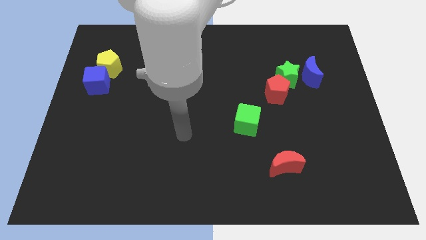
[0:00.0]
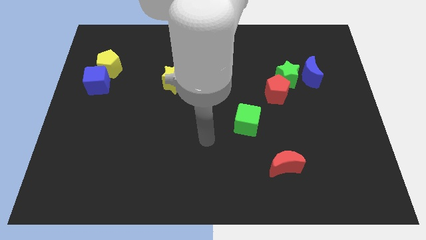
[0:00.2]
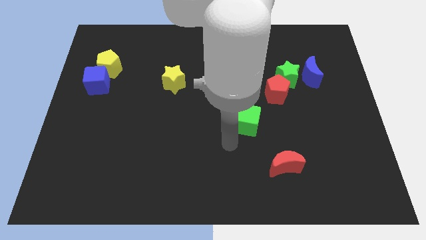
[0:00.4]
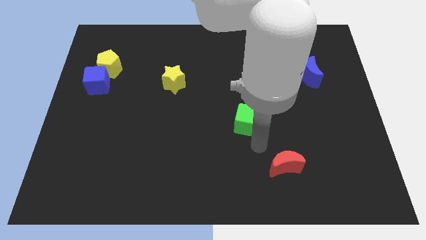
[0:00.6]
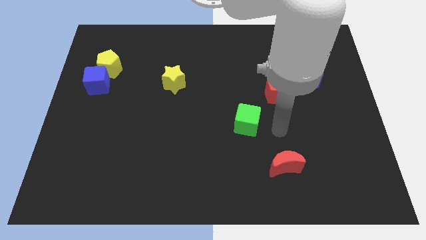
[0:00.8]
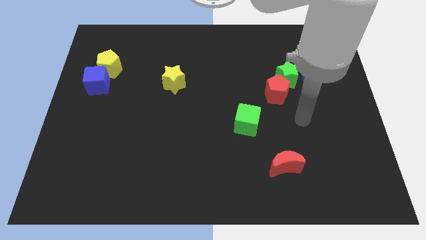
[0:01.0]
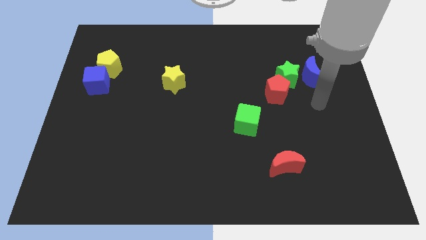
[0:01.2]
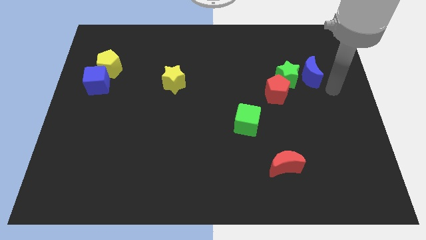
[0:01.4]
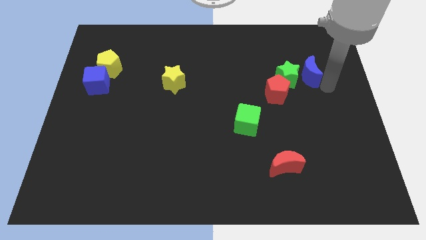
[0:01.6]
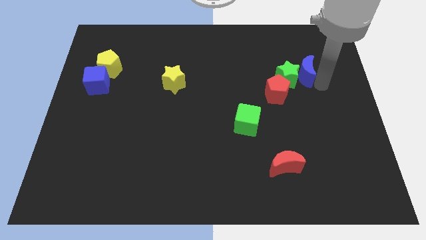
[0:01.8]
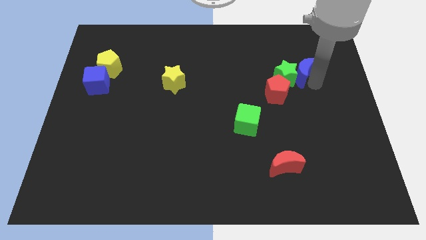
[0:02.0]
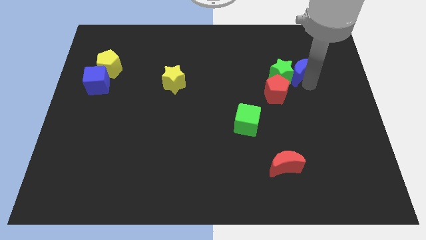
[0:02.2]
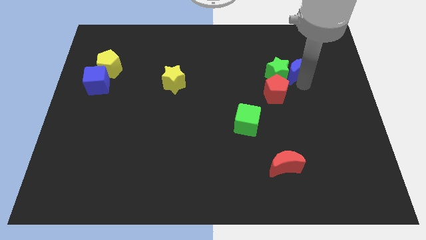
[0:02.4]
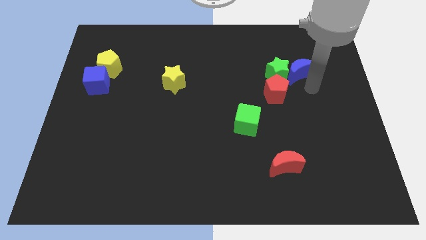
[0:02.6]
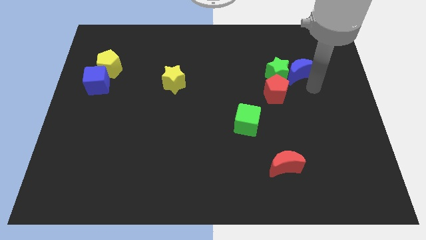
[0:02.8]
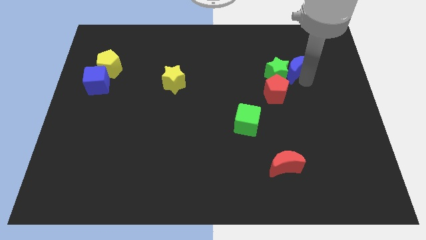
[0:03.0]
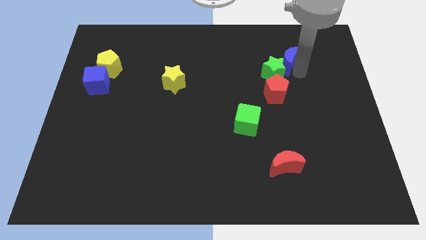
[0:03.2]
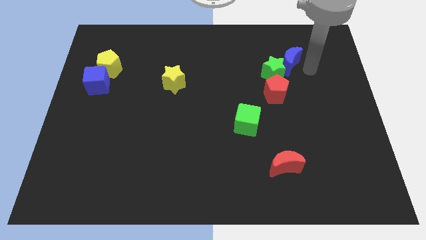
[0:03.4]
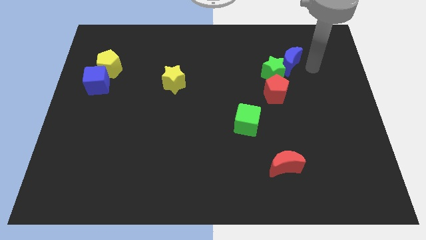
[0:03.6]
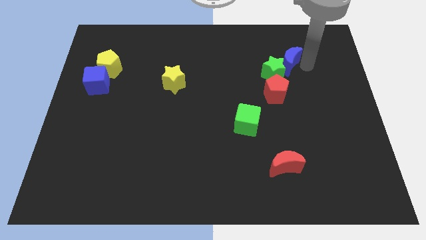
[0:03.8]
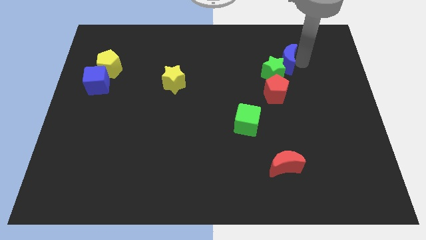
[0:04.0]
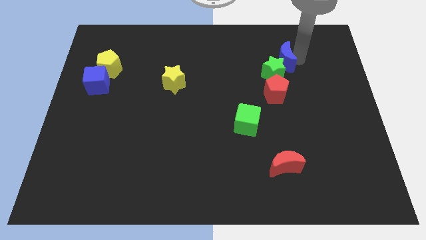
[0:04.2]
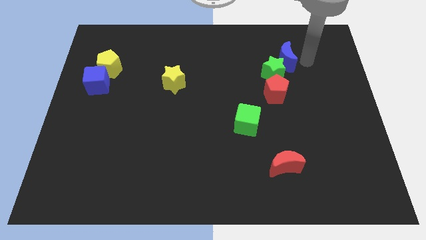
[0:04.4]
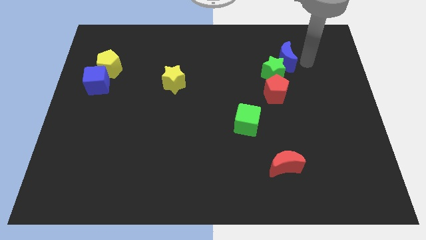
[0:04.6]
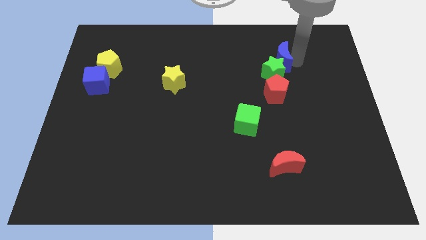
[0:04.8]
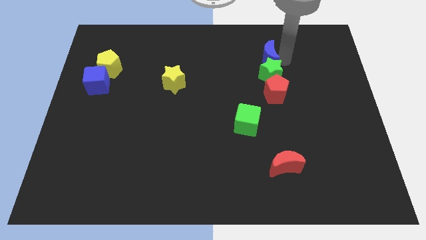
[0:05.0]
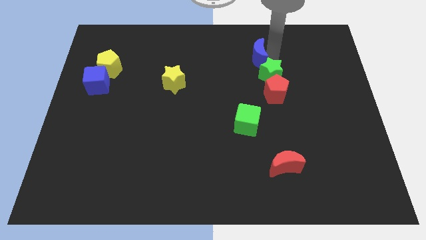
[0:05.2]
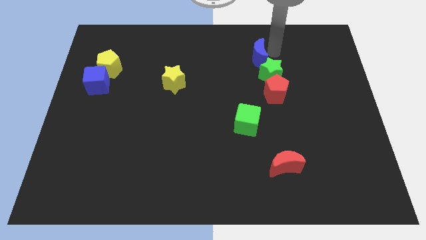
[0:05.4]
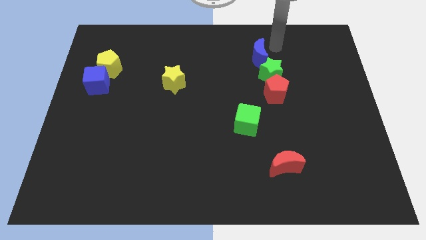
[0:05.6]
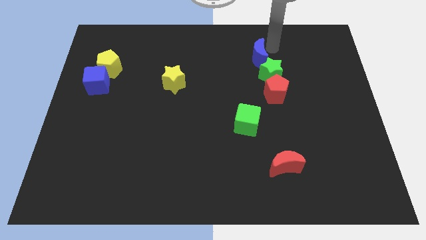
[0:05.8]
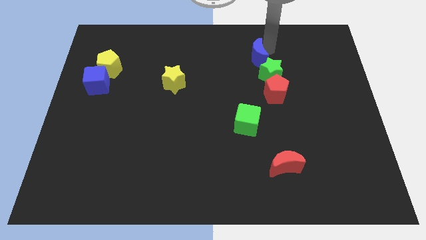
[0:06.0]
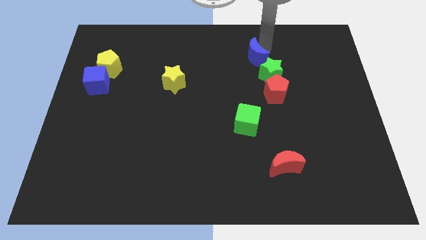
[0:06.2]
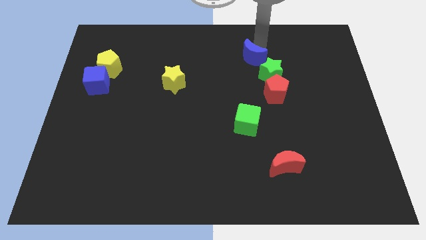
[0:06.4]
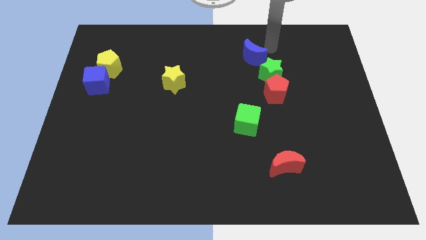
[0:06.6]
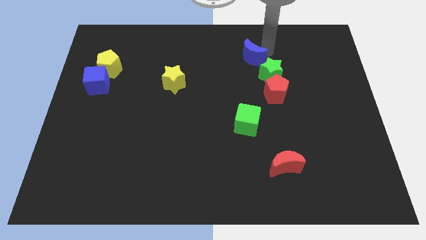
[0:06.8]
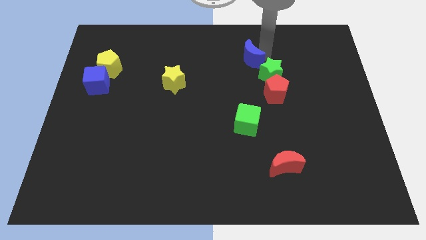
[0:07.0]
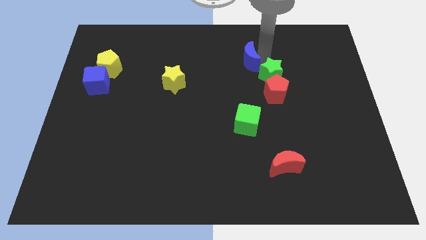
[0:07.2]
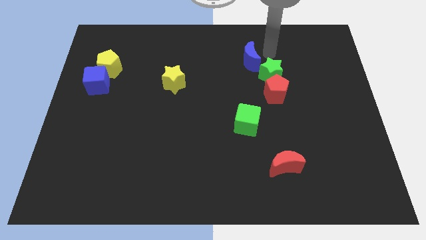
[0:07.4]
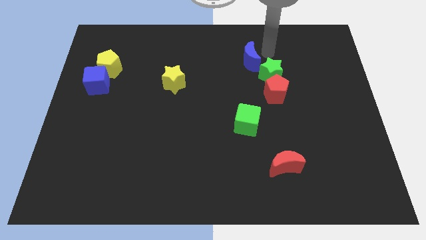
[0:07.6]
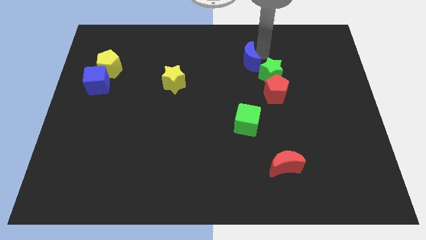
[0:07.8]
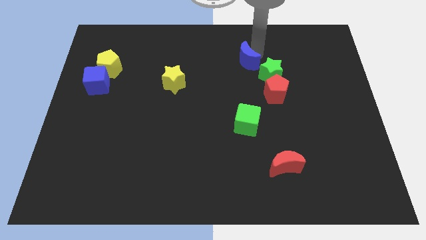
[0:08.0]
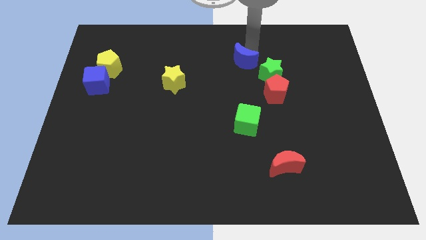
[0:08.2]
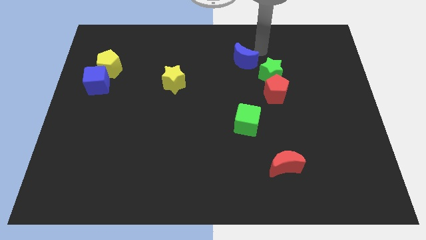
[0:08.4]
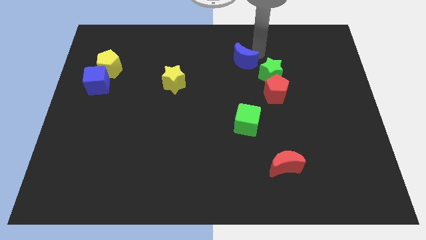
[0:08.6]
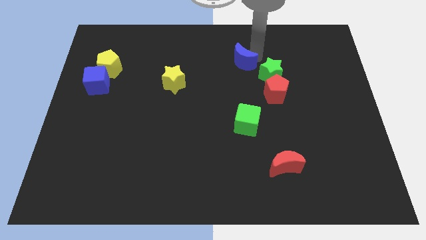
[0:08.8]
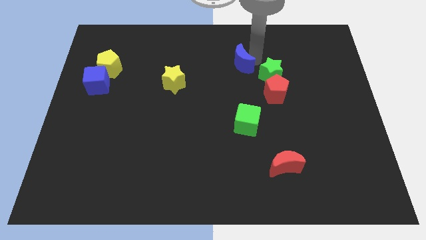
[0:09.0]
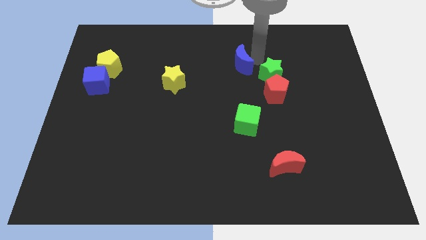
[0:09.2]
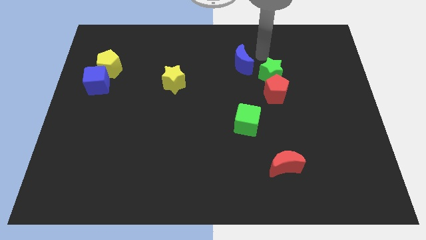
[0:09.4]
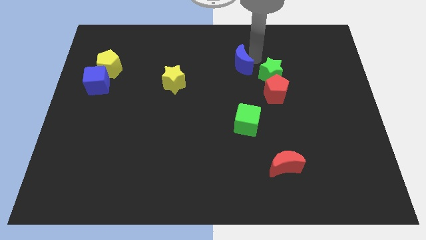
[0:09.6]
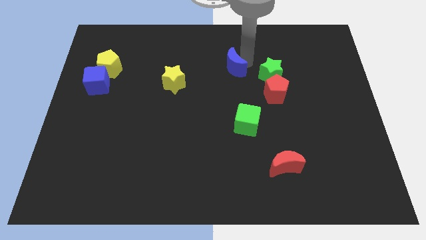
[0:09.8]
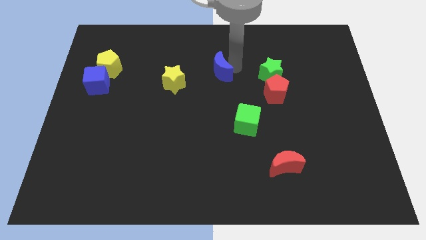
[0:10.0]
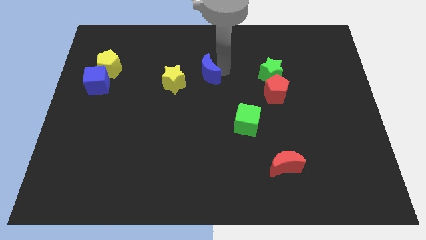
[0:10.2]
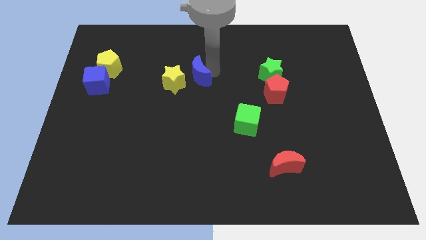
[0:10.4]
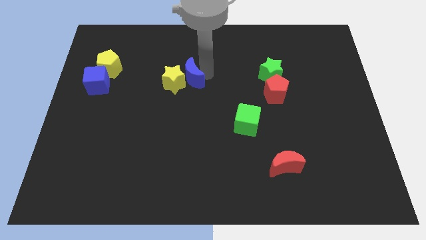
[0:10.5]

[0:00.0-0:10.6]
move the blue moon towards the yellow star

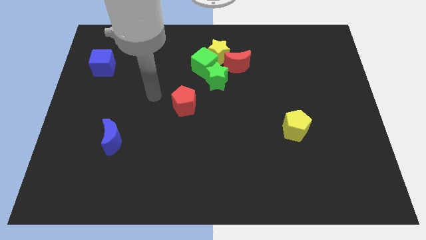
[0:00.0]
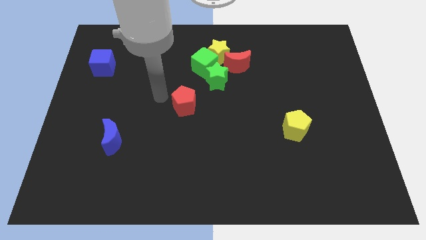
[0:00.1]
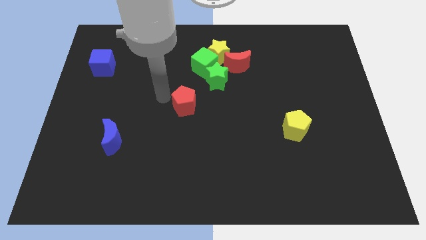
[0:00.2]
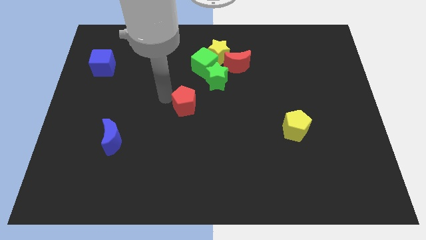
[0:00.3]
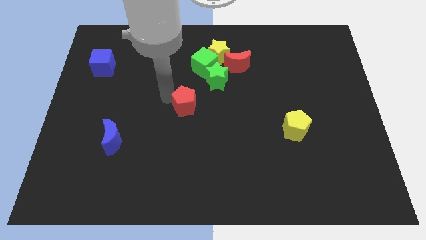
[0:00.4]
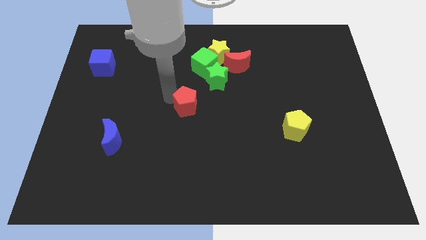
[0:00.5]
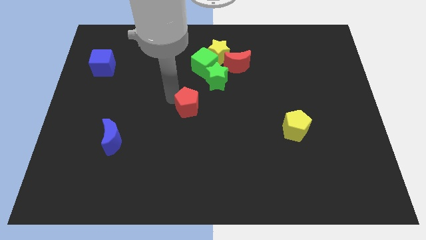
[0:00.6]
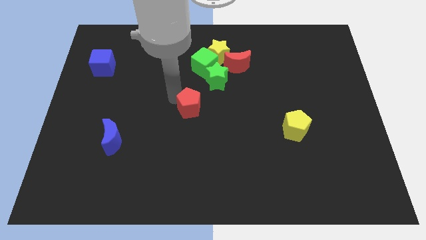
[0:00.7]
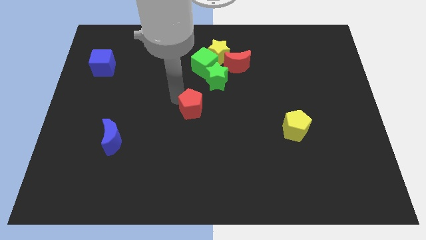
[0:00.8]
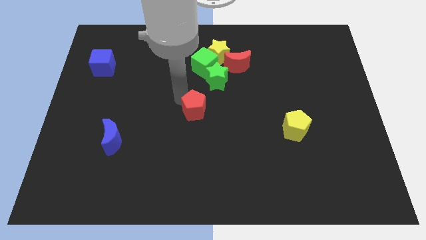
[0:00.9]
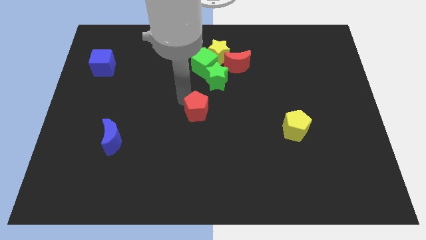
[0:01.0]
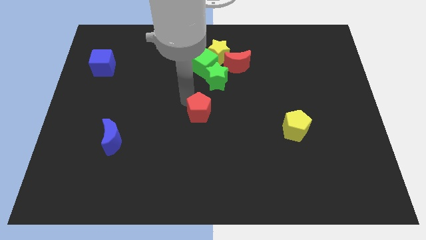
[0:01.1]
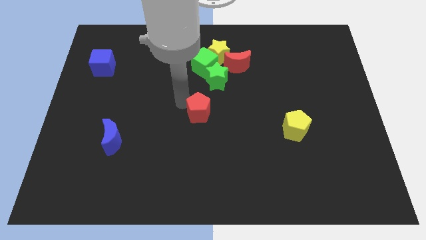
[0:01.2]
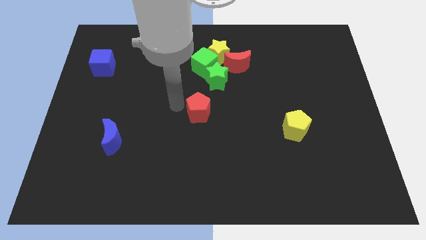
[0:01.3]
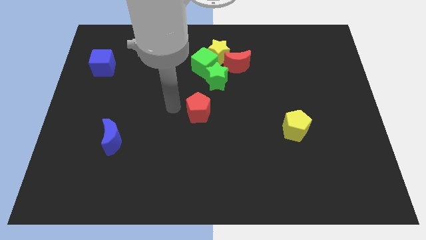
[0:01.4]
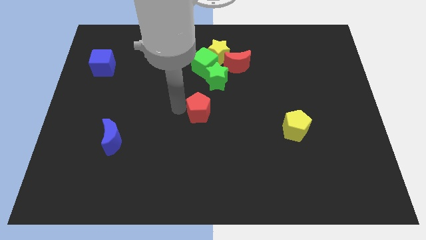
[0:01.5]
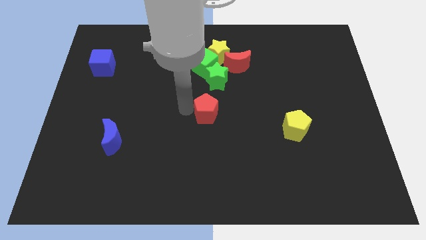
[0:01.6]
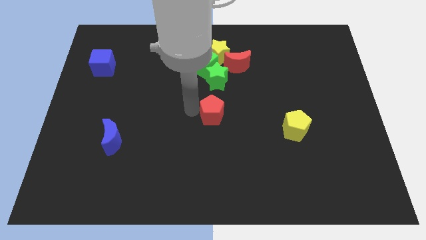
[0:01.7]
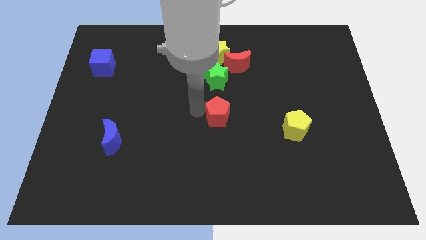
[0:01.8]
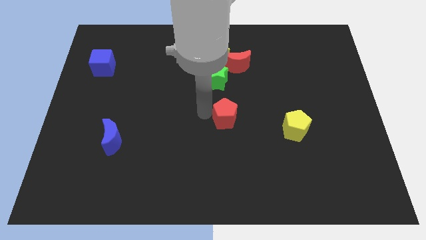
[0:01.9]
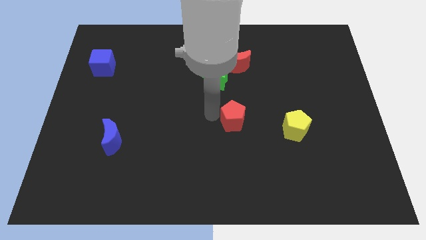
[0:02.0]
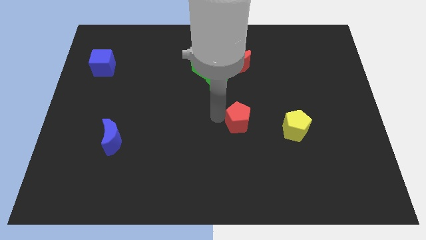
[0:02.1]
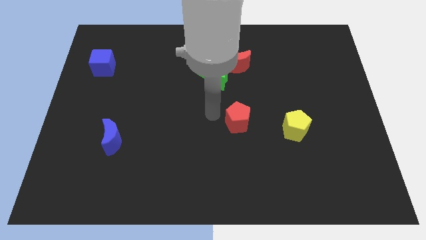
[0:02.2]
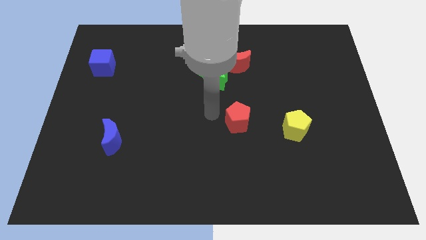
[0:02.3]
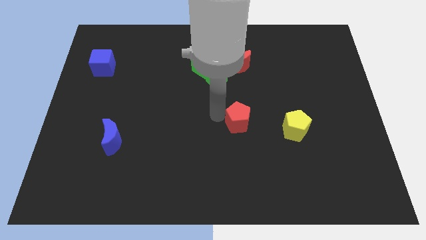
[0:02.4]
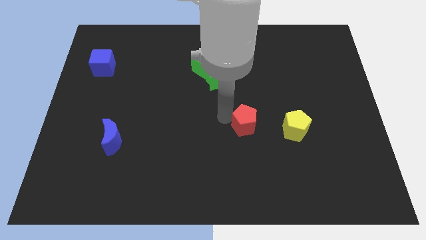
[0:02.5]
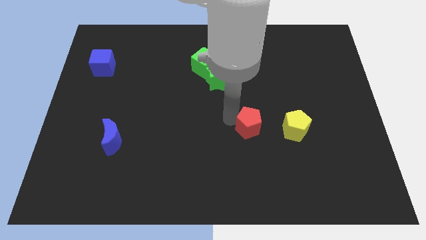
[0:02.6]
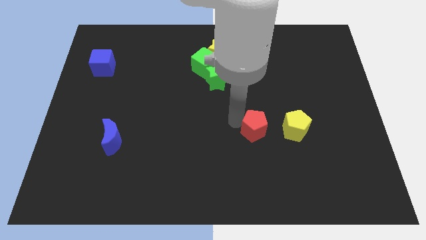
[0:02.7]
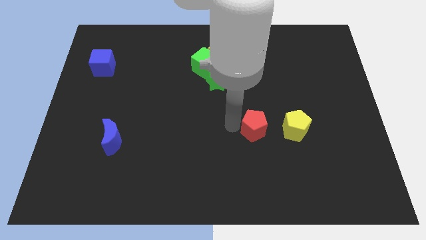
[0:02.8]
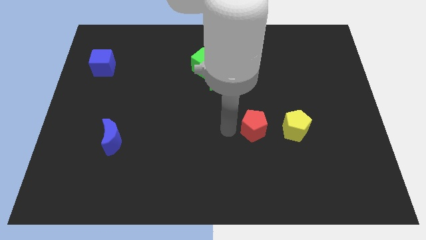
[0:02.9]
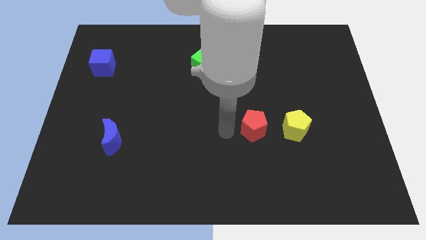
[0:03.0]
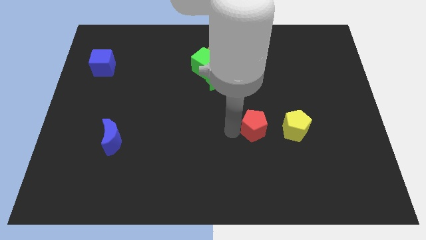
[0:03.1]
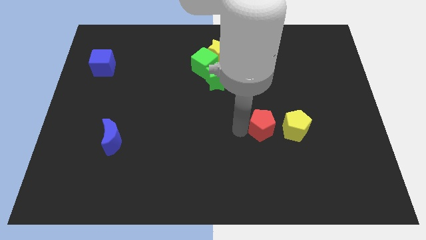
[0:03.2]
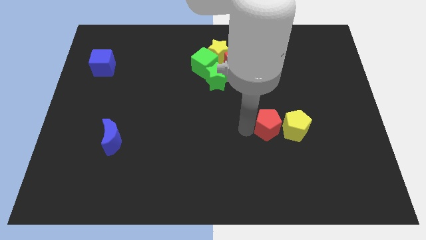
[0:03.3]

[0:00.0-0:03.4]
slide the red pentagon close to the yellow pentagon
